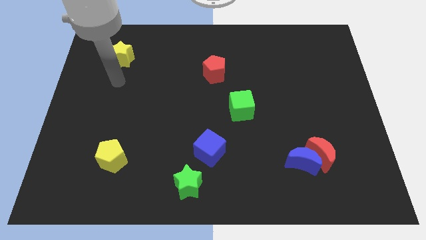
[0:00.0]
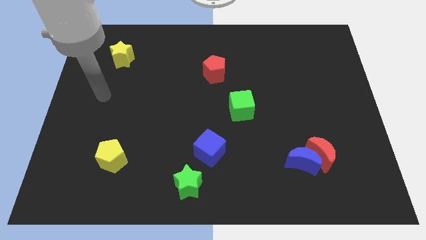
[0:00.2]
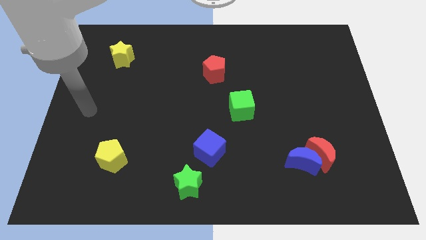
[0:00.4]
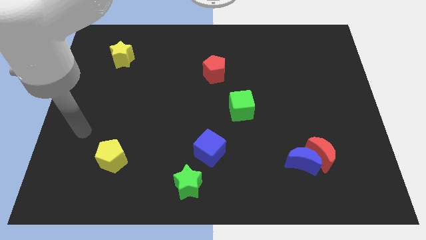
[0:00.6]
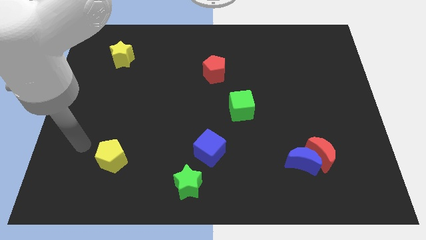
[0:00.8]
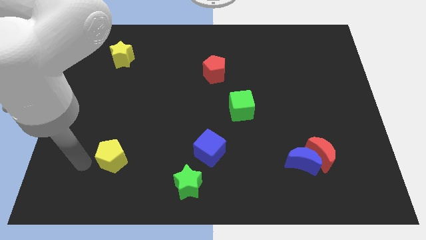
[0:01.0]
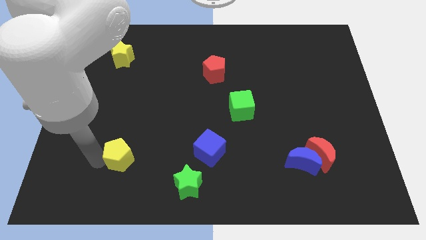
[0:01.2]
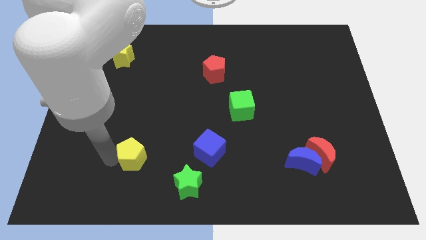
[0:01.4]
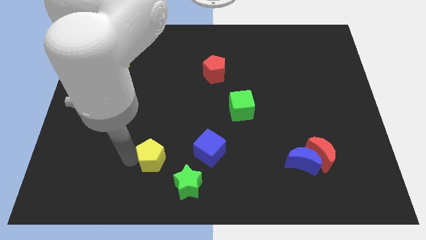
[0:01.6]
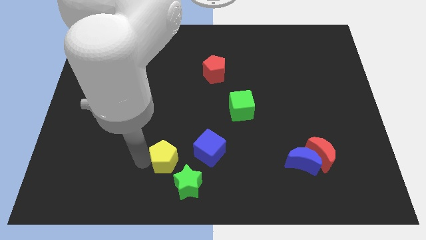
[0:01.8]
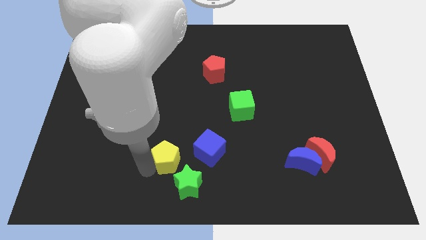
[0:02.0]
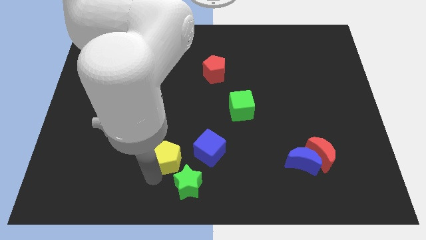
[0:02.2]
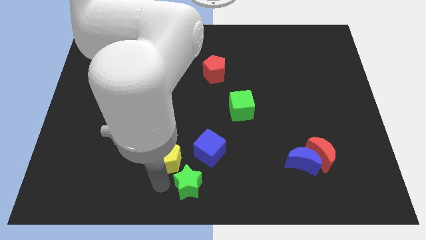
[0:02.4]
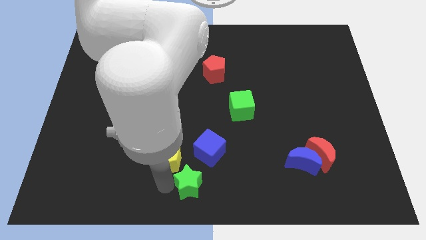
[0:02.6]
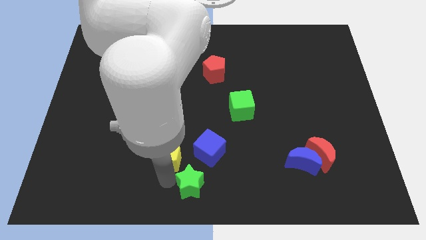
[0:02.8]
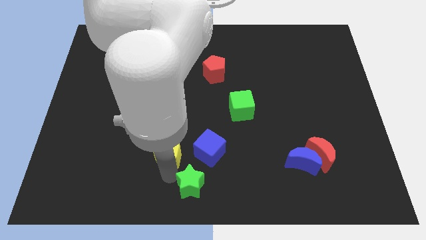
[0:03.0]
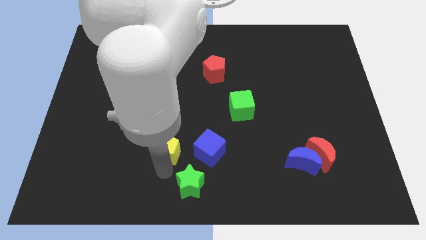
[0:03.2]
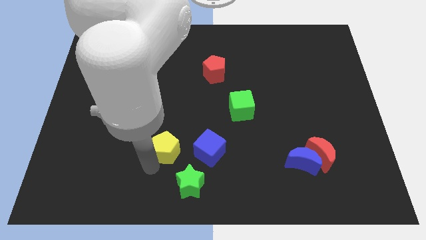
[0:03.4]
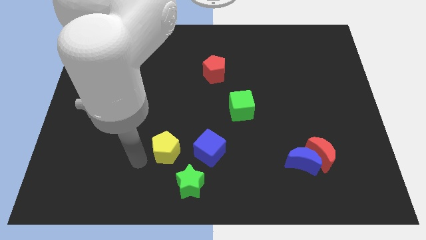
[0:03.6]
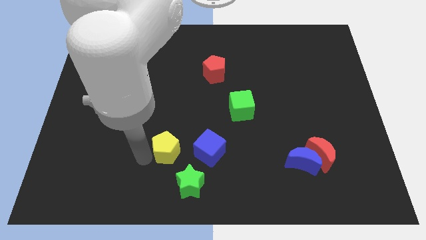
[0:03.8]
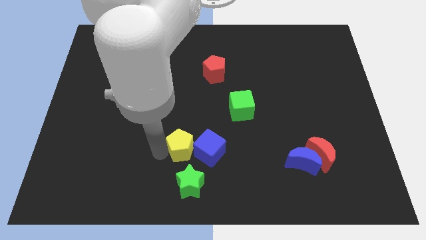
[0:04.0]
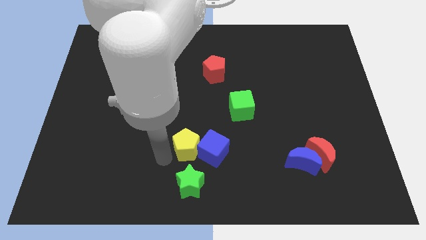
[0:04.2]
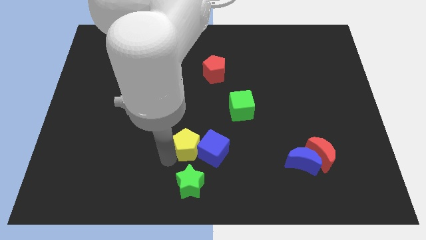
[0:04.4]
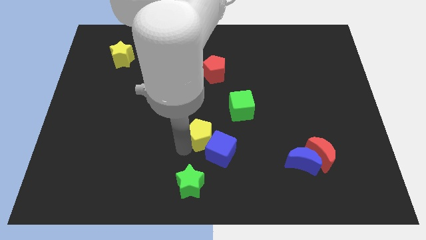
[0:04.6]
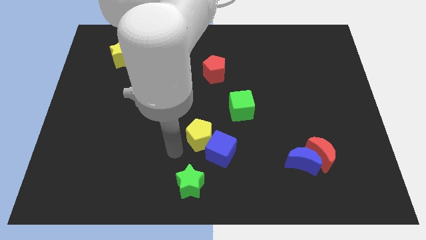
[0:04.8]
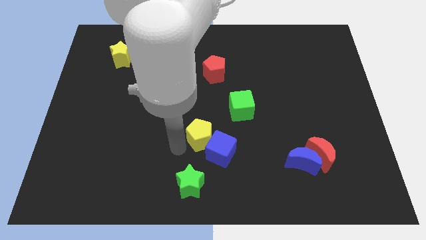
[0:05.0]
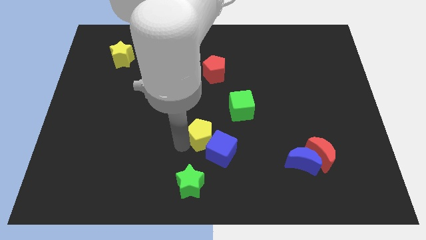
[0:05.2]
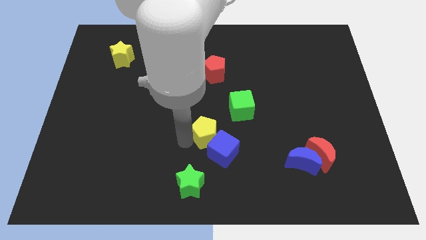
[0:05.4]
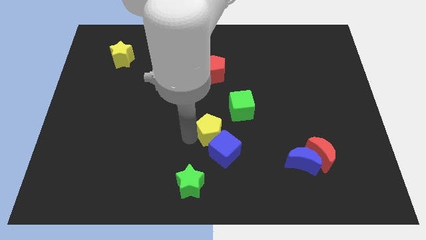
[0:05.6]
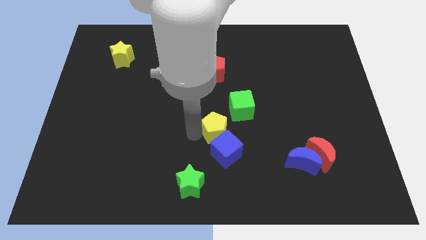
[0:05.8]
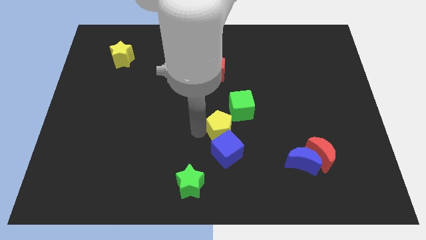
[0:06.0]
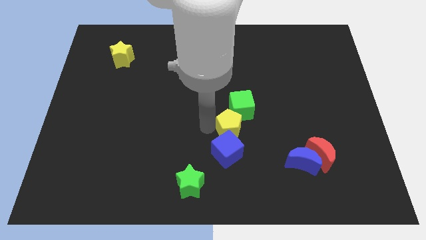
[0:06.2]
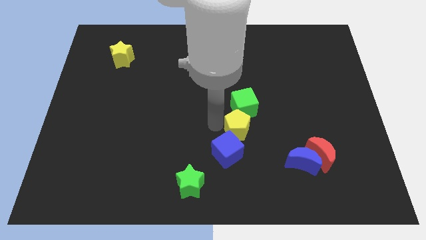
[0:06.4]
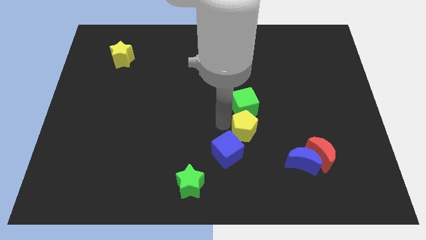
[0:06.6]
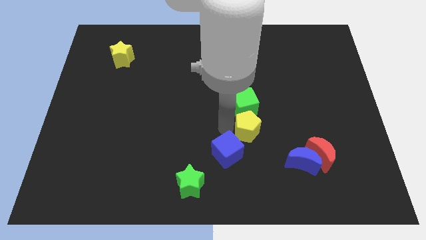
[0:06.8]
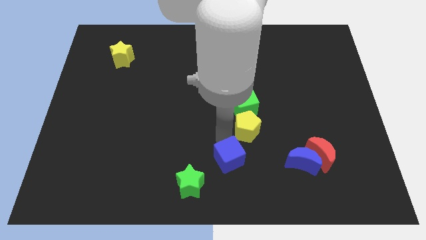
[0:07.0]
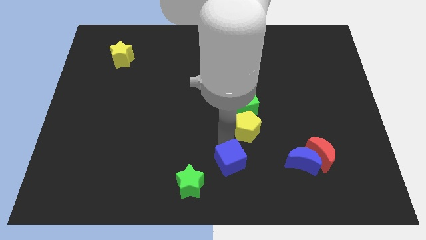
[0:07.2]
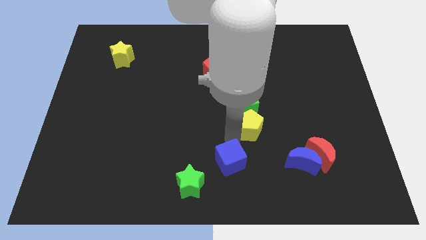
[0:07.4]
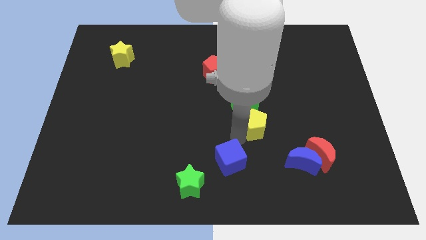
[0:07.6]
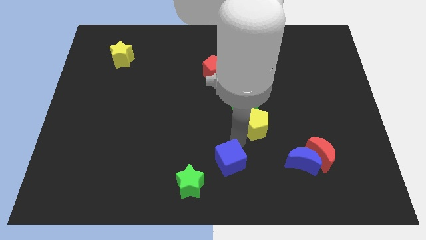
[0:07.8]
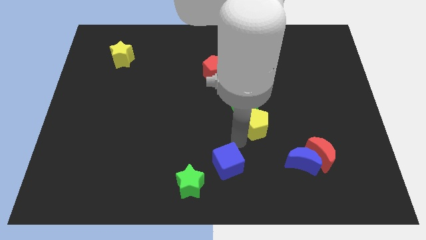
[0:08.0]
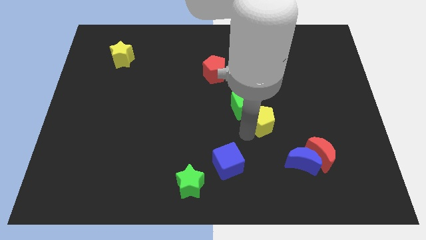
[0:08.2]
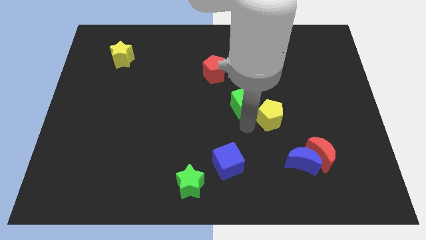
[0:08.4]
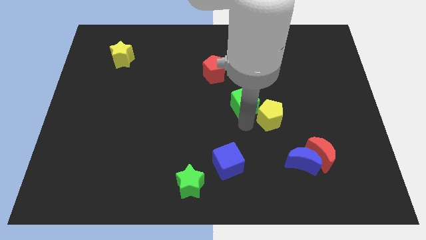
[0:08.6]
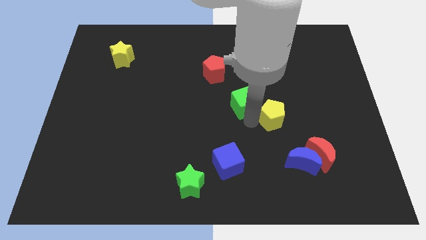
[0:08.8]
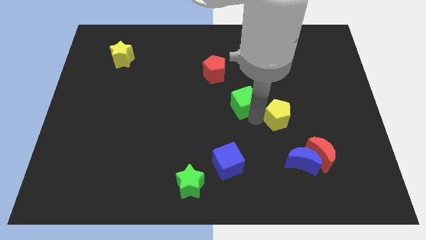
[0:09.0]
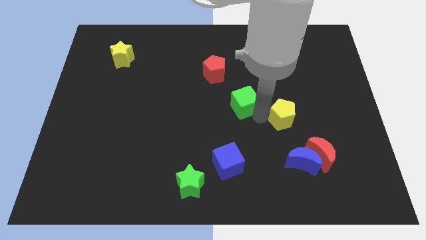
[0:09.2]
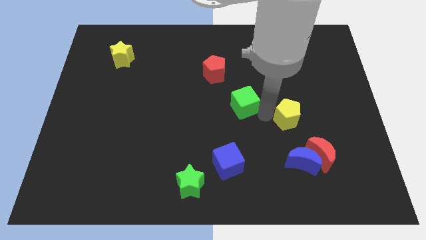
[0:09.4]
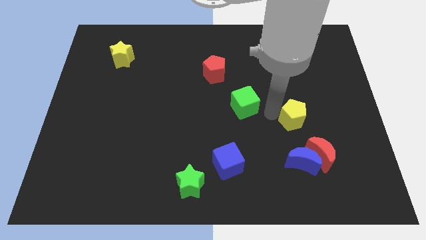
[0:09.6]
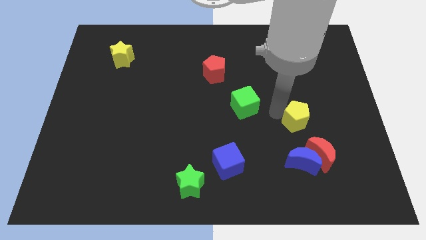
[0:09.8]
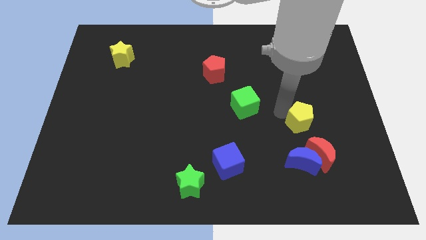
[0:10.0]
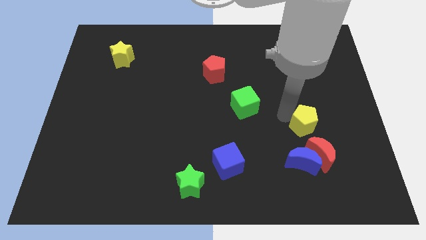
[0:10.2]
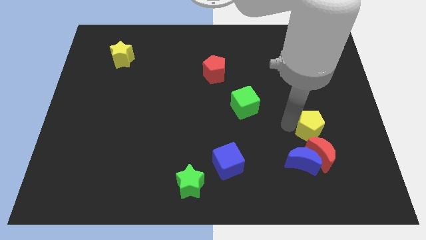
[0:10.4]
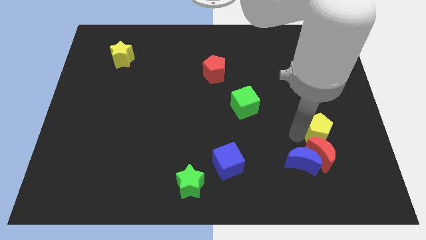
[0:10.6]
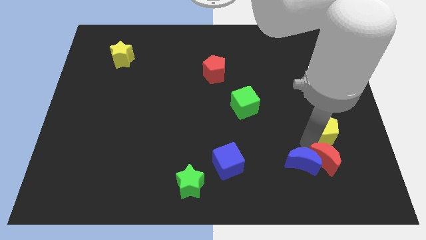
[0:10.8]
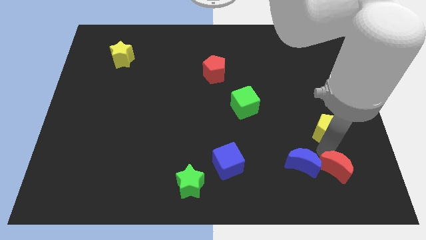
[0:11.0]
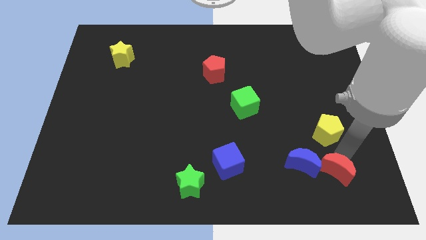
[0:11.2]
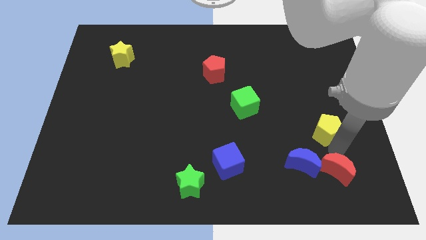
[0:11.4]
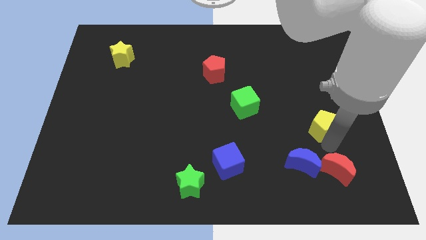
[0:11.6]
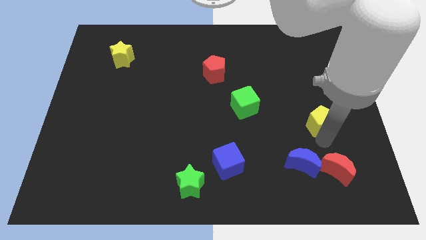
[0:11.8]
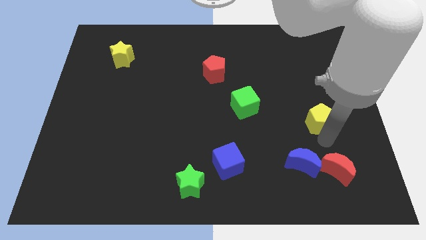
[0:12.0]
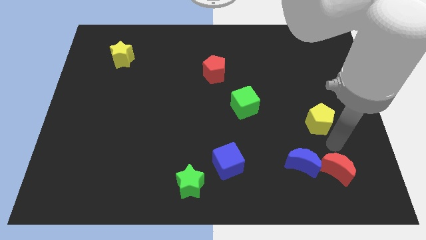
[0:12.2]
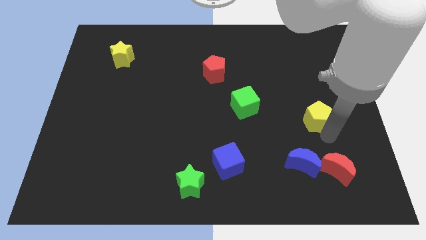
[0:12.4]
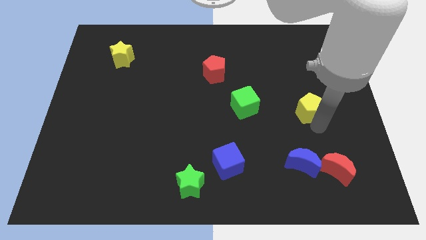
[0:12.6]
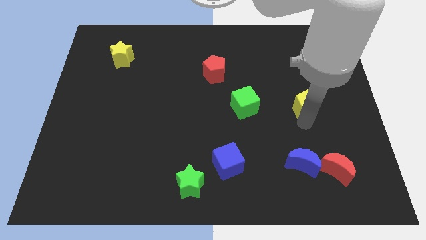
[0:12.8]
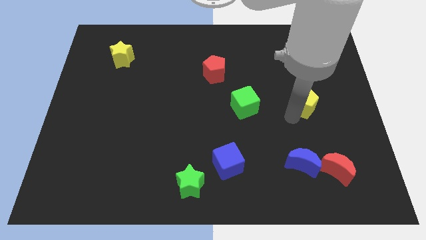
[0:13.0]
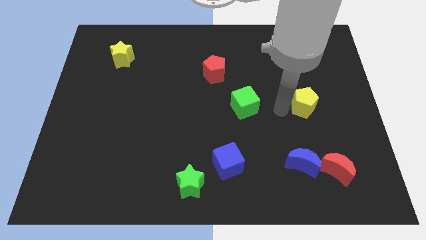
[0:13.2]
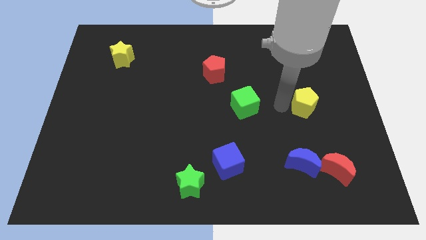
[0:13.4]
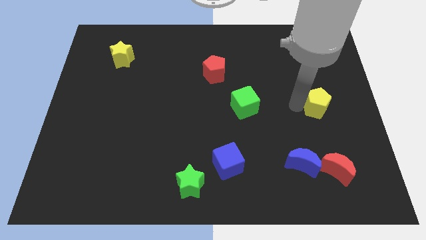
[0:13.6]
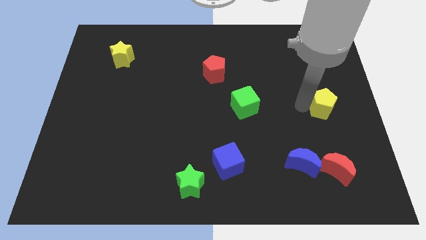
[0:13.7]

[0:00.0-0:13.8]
slide the yellow pentagon to the right side

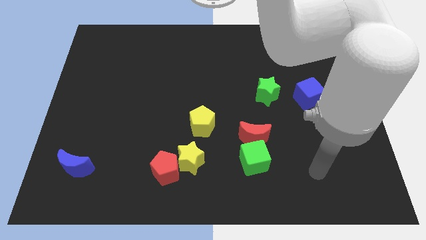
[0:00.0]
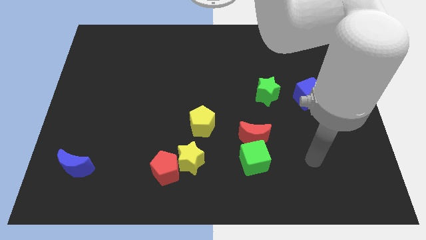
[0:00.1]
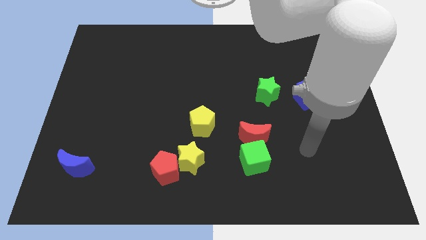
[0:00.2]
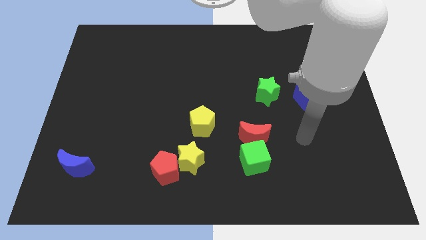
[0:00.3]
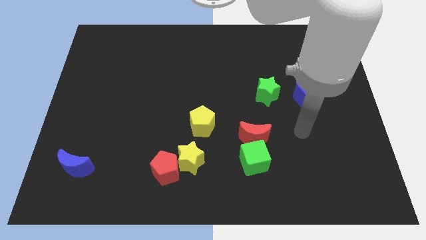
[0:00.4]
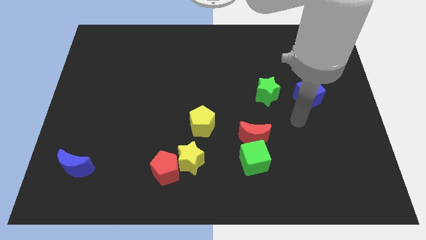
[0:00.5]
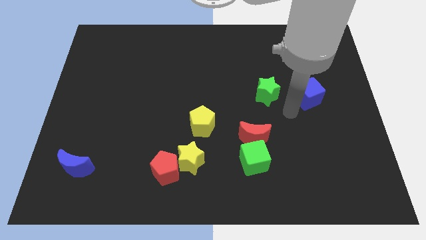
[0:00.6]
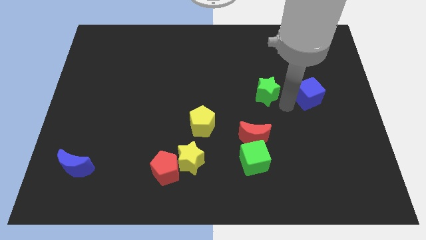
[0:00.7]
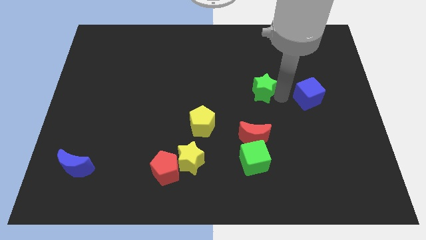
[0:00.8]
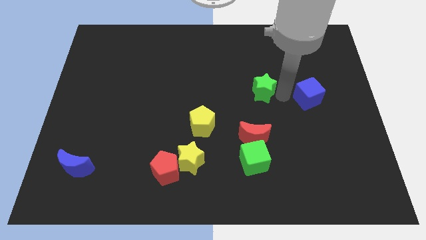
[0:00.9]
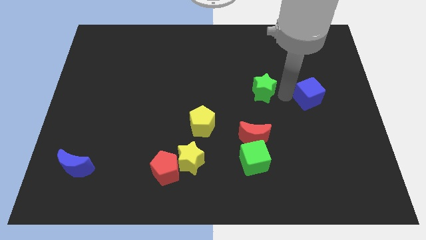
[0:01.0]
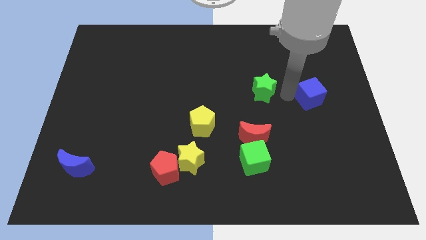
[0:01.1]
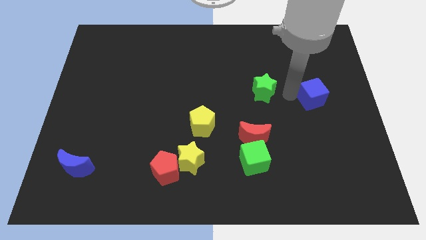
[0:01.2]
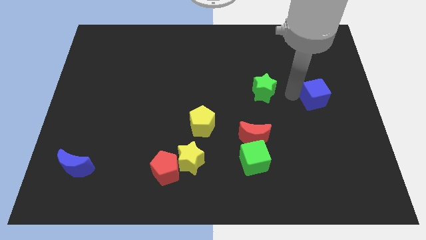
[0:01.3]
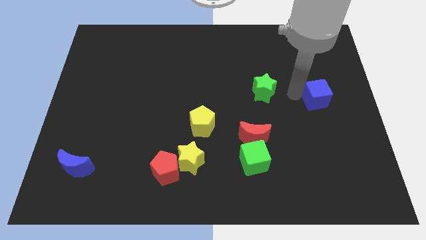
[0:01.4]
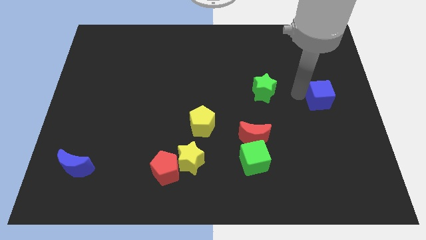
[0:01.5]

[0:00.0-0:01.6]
move the blue cube to the right side
